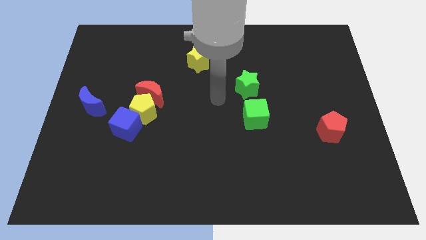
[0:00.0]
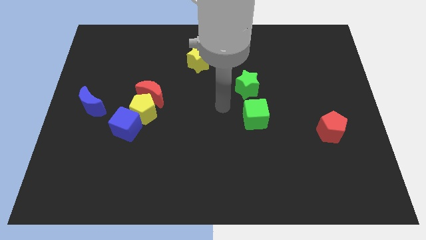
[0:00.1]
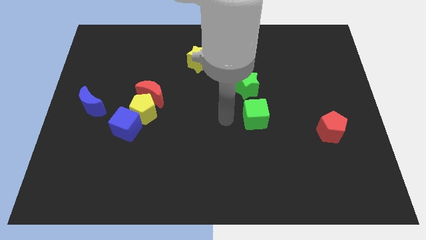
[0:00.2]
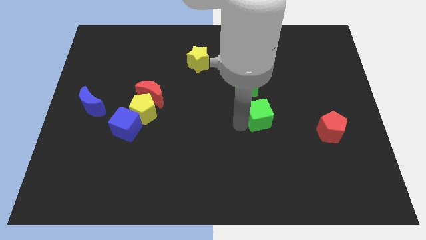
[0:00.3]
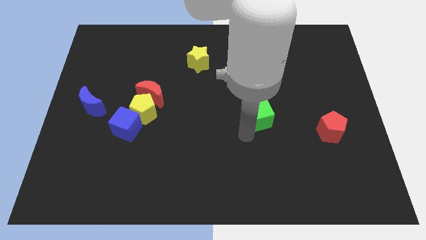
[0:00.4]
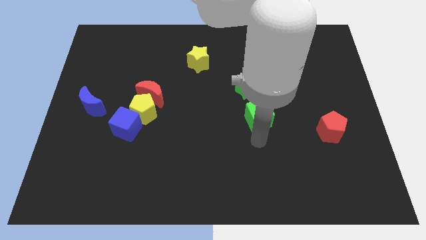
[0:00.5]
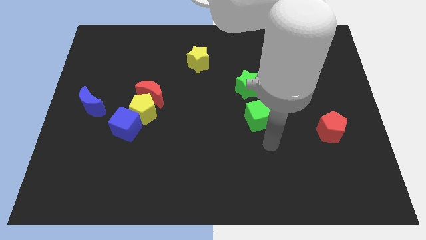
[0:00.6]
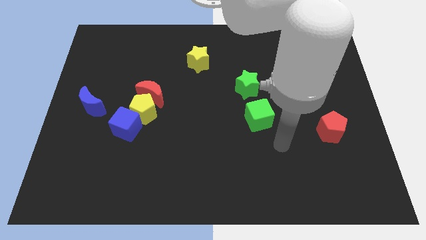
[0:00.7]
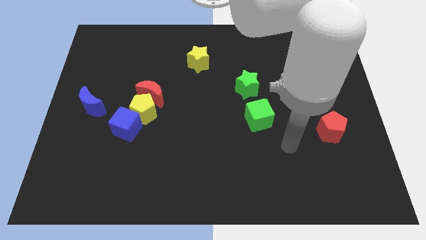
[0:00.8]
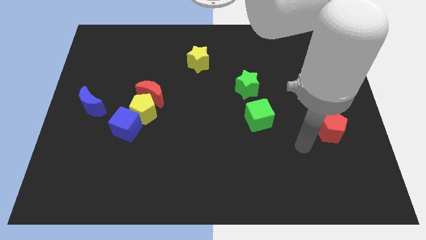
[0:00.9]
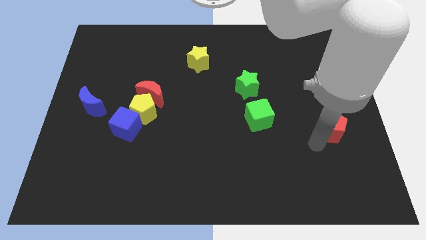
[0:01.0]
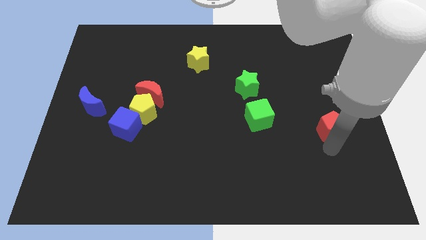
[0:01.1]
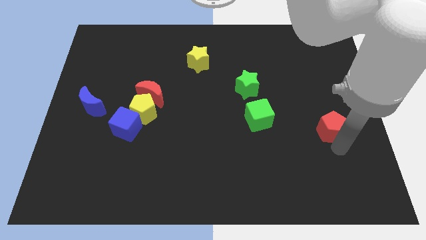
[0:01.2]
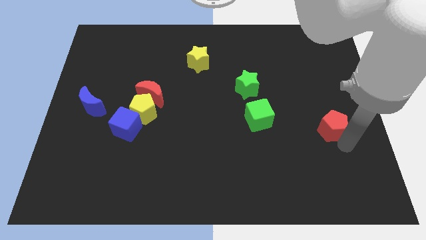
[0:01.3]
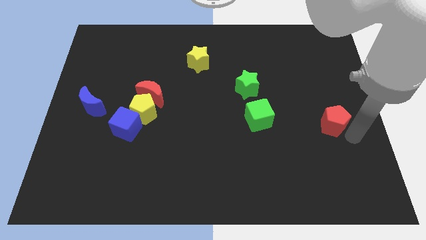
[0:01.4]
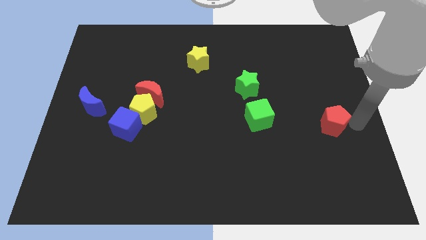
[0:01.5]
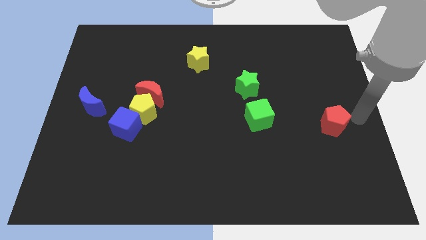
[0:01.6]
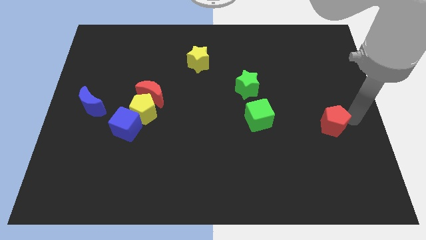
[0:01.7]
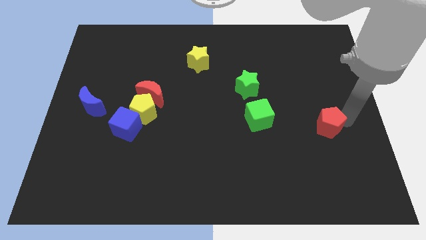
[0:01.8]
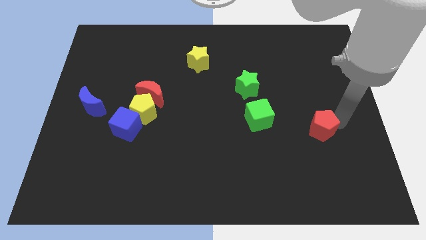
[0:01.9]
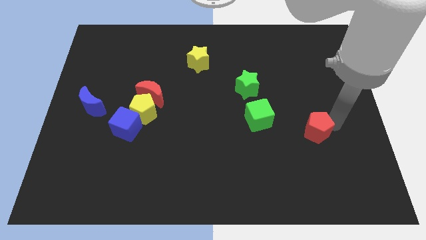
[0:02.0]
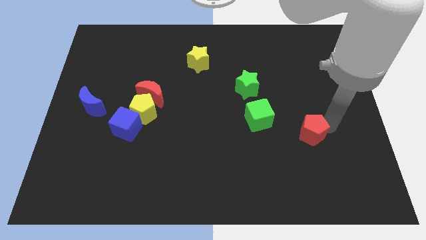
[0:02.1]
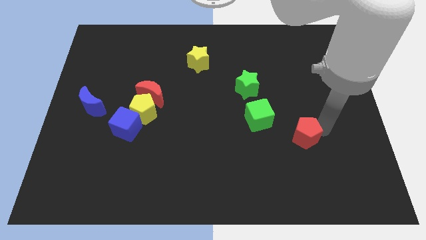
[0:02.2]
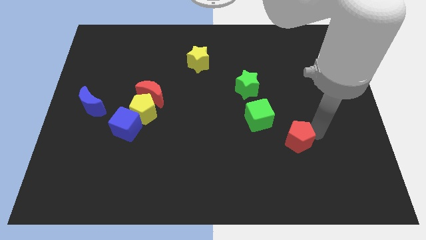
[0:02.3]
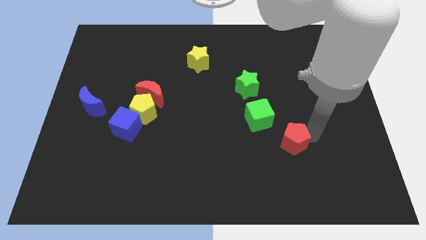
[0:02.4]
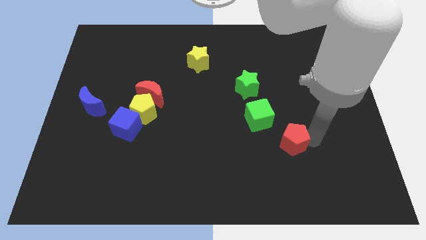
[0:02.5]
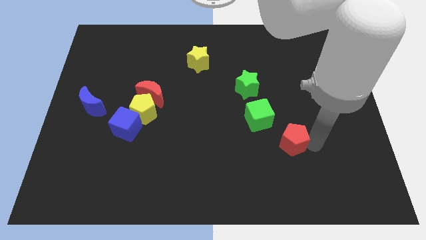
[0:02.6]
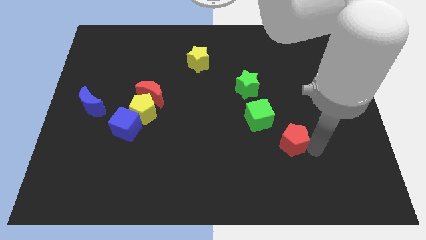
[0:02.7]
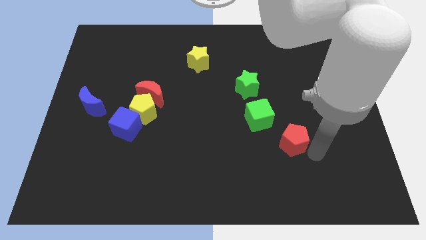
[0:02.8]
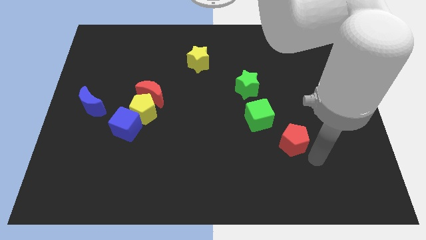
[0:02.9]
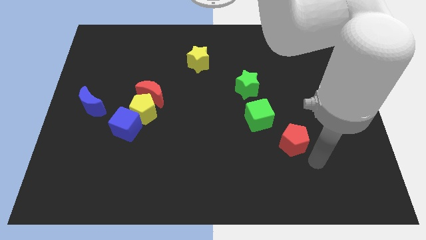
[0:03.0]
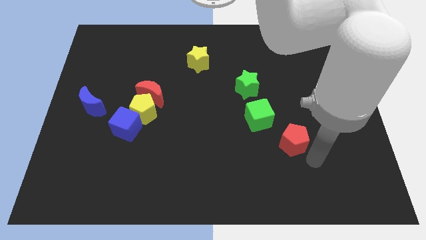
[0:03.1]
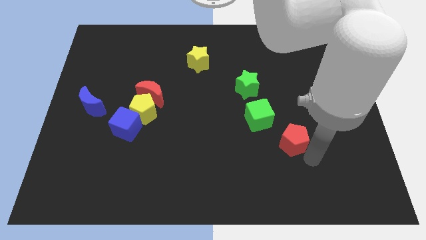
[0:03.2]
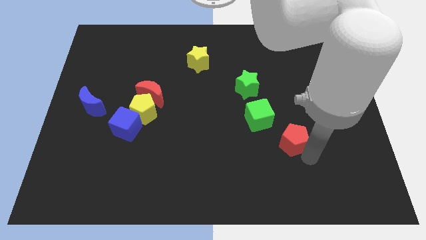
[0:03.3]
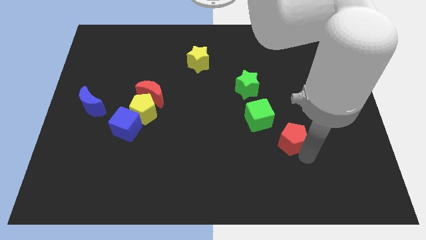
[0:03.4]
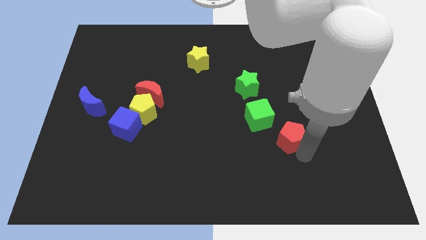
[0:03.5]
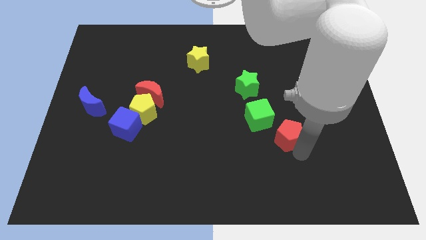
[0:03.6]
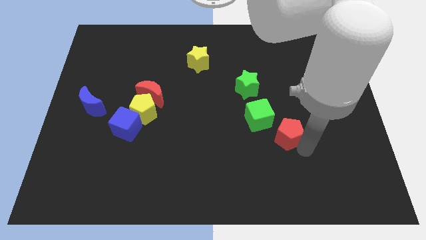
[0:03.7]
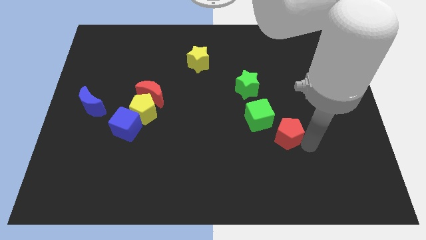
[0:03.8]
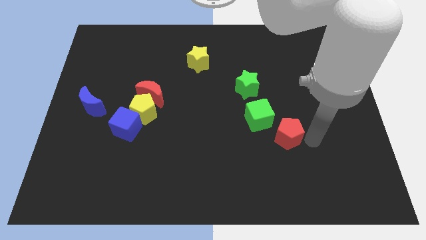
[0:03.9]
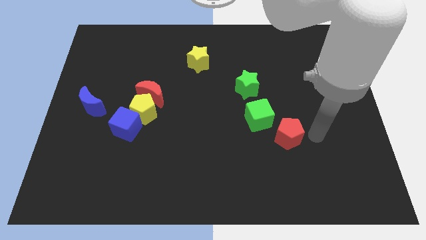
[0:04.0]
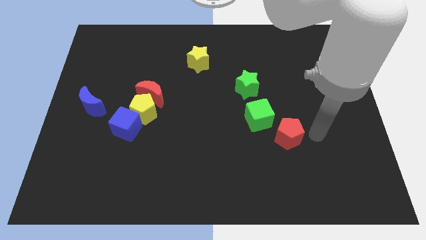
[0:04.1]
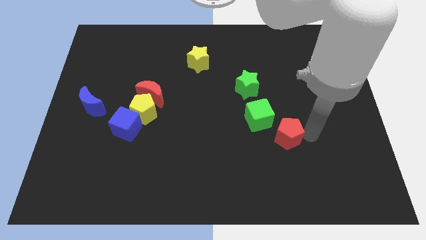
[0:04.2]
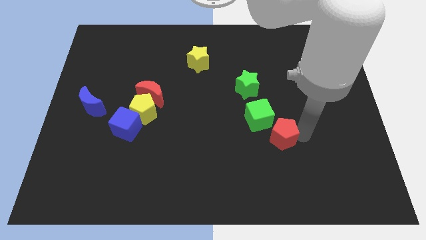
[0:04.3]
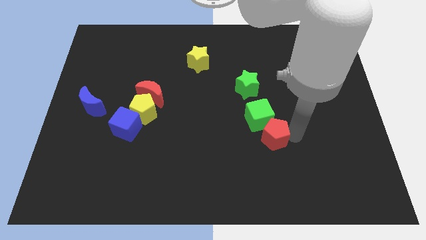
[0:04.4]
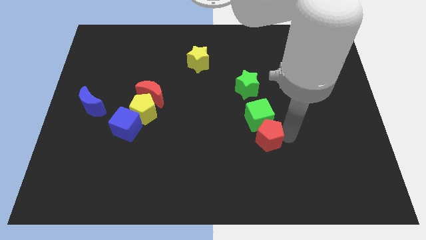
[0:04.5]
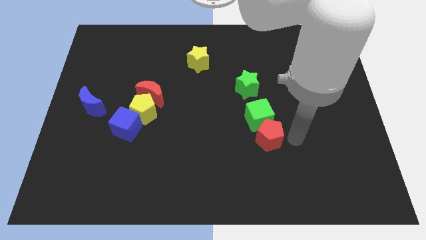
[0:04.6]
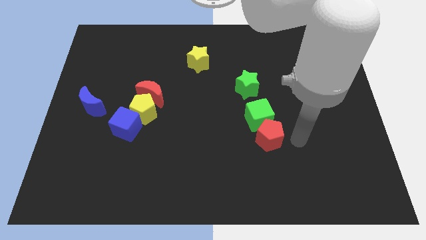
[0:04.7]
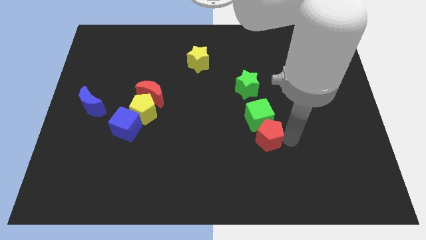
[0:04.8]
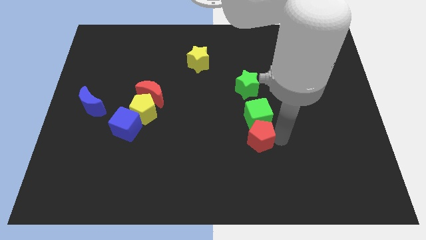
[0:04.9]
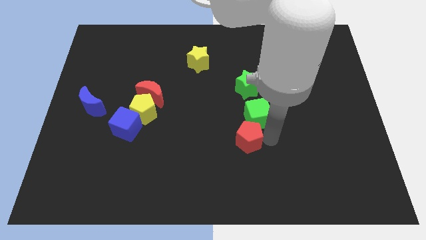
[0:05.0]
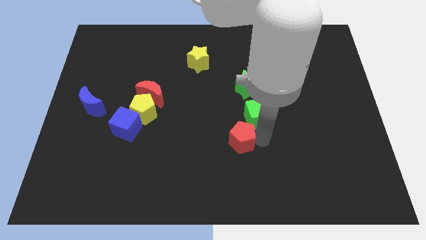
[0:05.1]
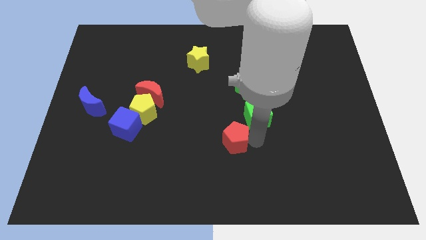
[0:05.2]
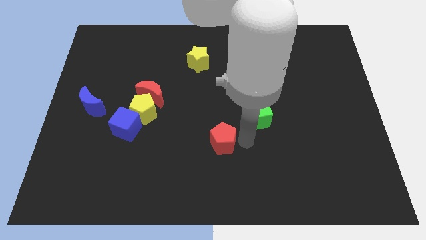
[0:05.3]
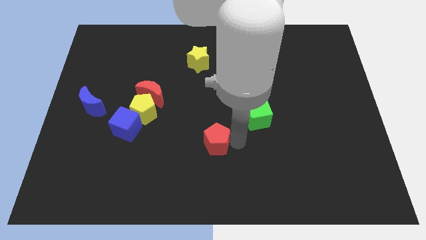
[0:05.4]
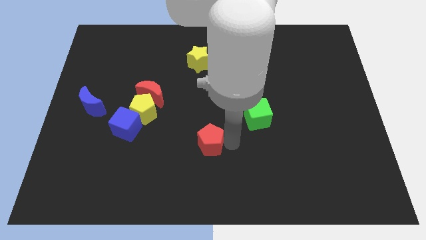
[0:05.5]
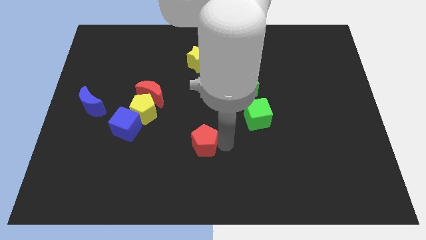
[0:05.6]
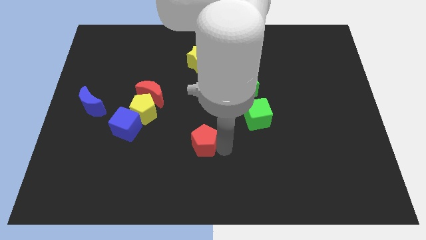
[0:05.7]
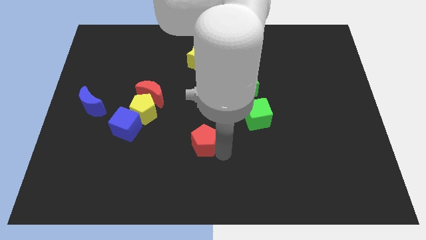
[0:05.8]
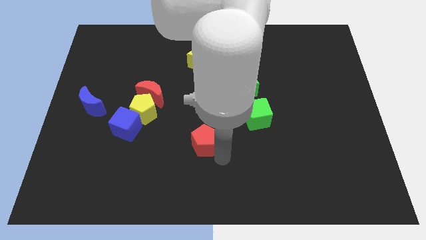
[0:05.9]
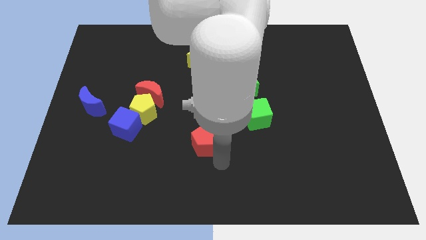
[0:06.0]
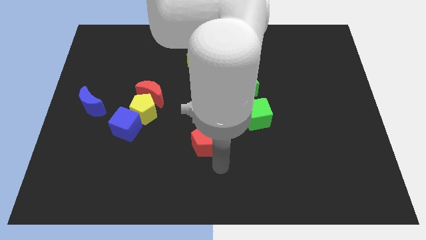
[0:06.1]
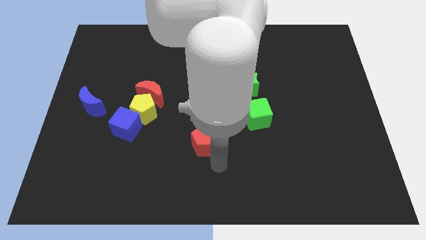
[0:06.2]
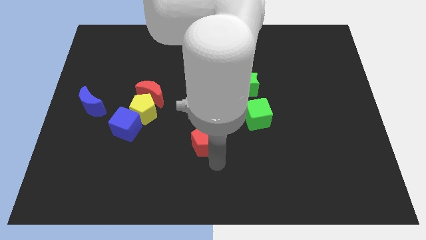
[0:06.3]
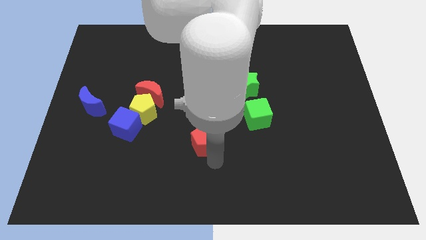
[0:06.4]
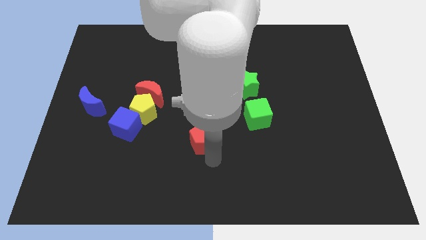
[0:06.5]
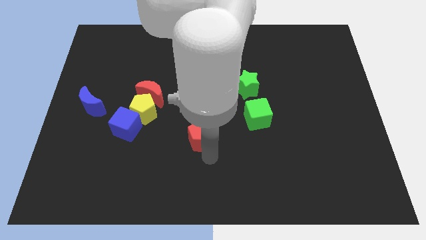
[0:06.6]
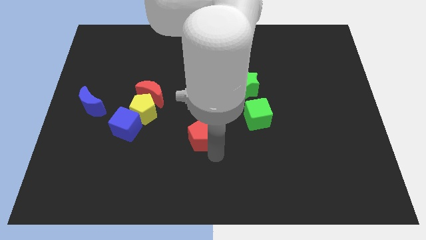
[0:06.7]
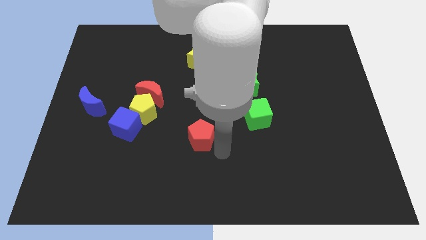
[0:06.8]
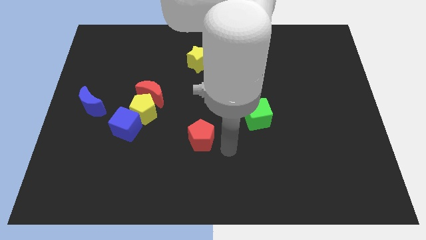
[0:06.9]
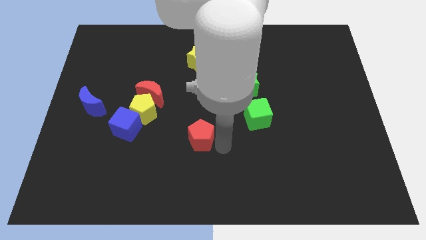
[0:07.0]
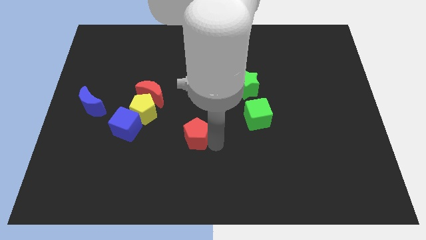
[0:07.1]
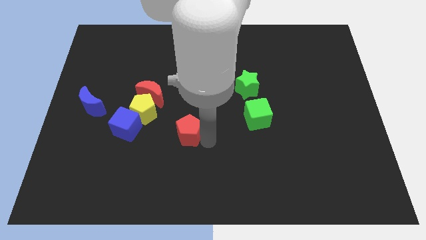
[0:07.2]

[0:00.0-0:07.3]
slide the red pentagon just right of the blue cube

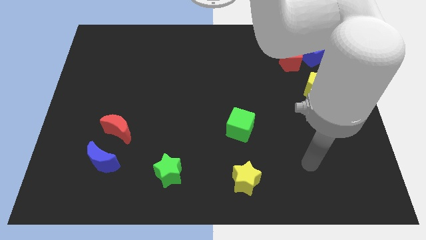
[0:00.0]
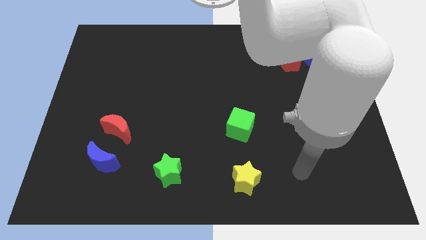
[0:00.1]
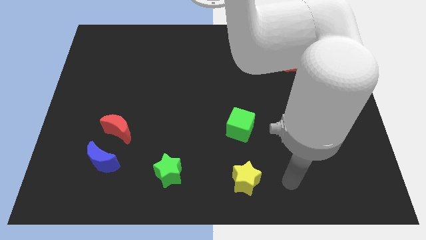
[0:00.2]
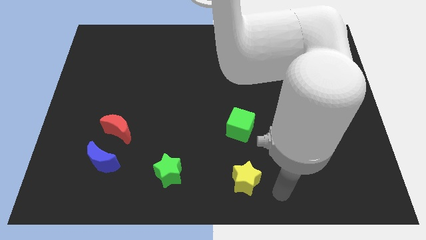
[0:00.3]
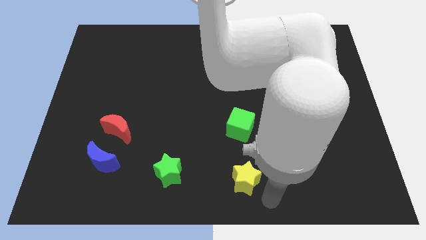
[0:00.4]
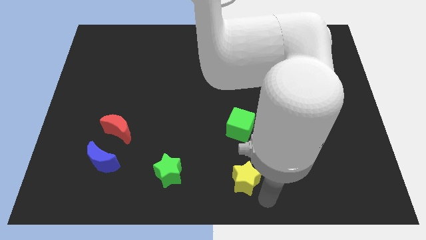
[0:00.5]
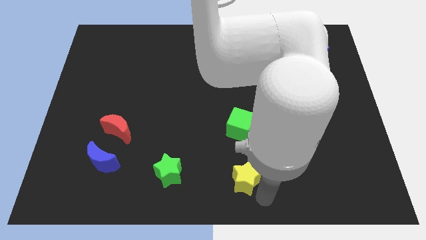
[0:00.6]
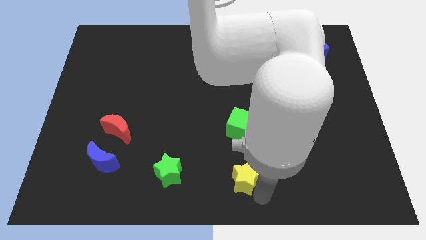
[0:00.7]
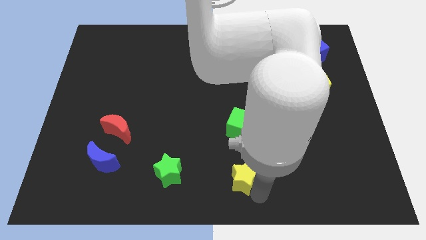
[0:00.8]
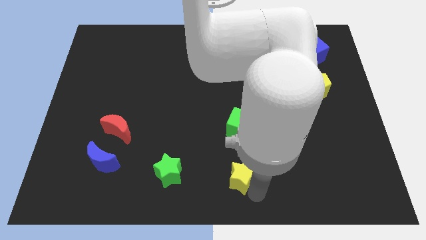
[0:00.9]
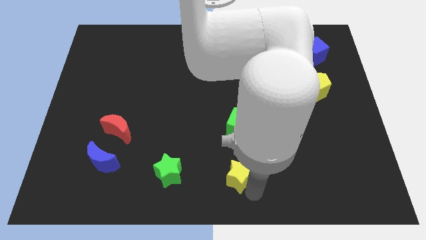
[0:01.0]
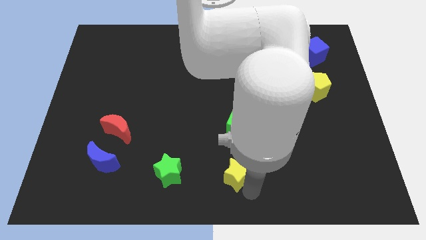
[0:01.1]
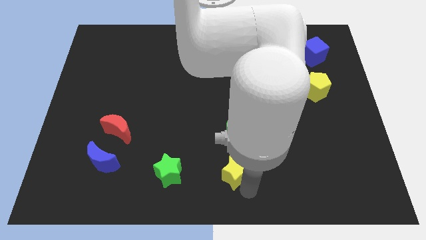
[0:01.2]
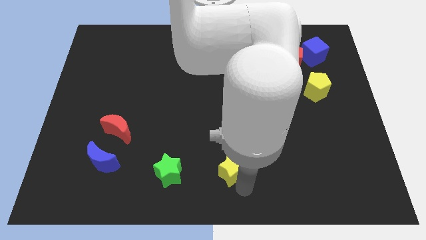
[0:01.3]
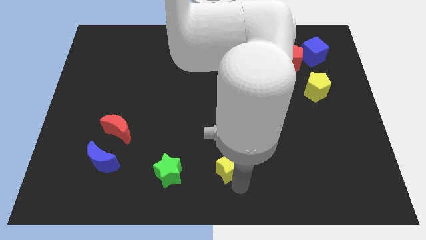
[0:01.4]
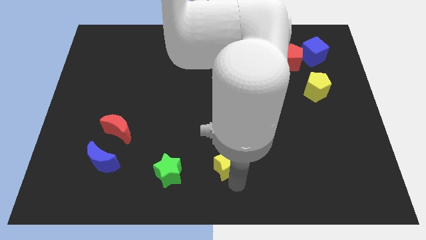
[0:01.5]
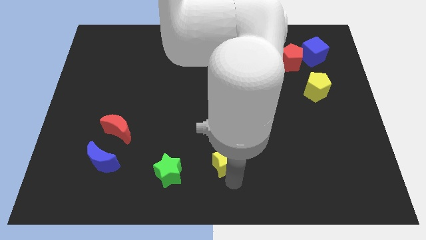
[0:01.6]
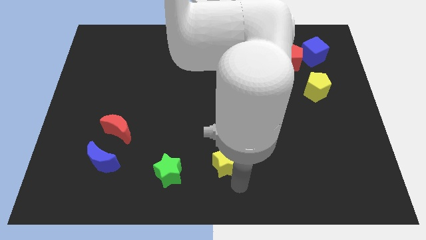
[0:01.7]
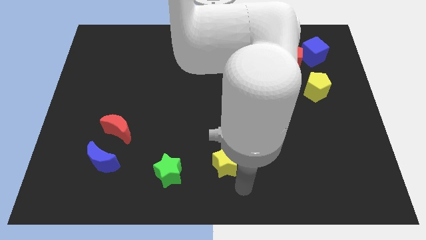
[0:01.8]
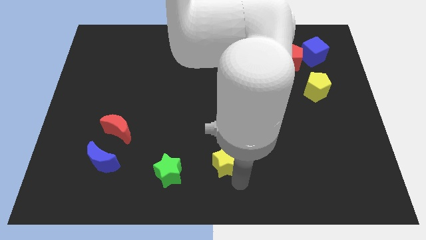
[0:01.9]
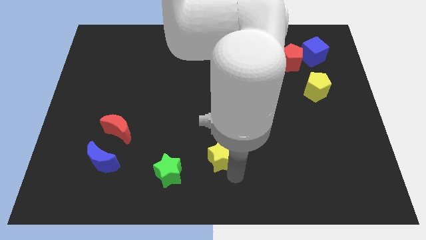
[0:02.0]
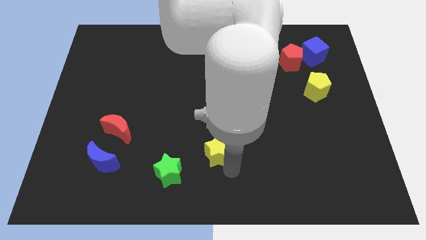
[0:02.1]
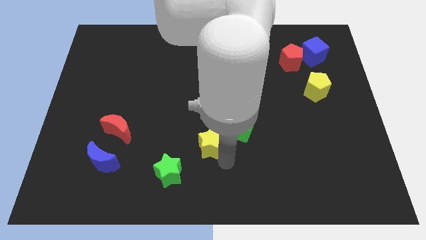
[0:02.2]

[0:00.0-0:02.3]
put the yellow star just left of the green cube
